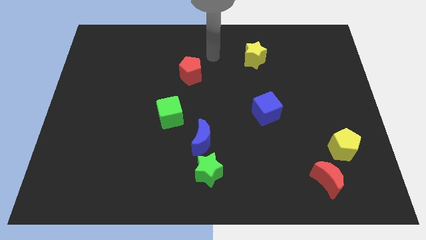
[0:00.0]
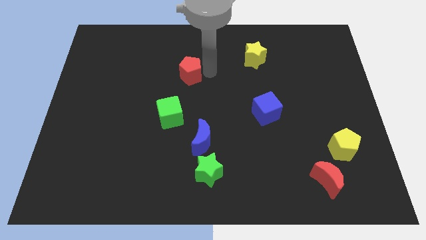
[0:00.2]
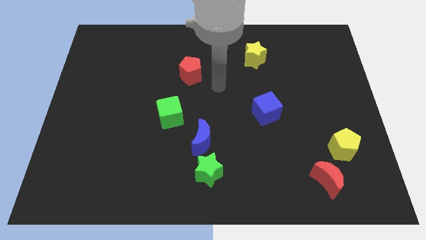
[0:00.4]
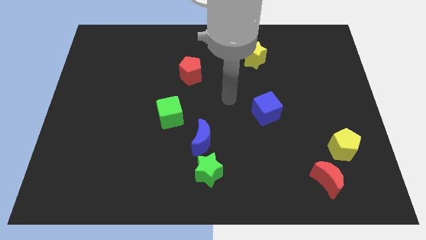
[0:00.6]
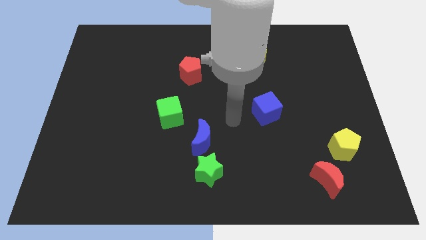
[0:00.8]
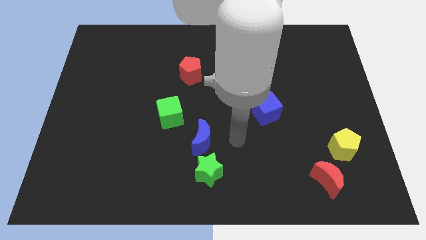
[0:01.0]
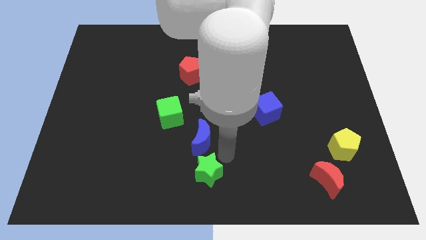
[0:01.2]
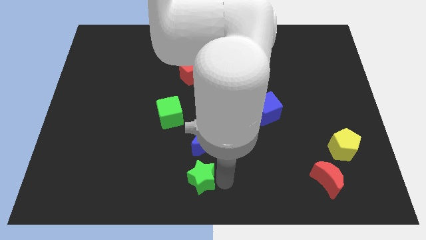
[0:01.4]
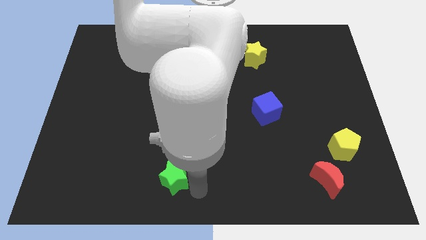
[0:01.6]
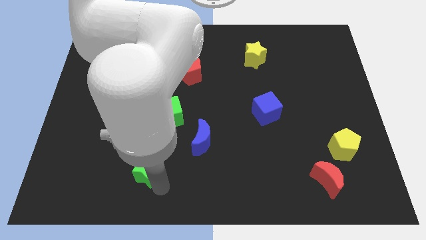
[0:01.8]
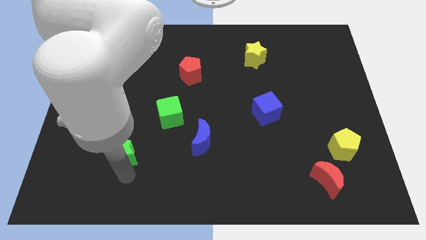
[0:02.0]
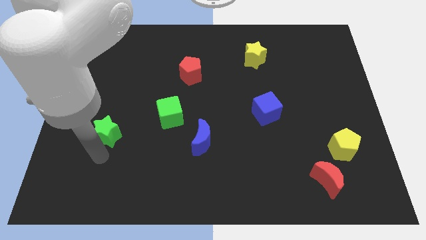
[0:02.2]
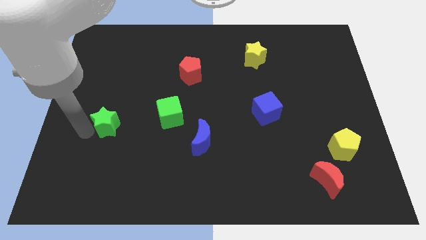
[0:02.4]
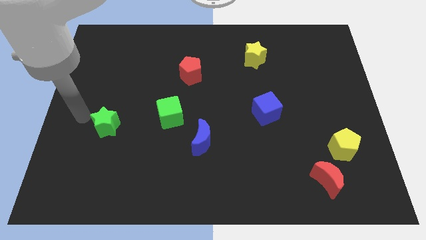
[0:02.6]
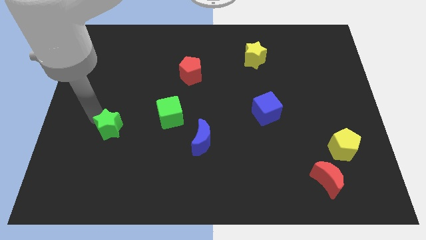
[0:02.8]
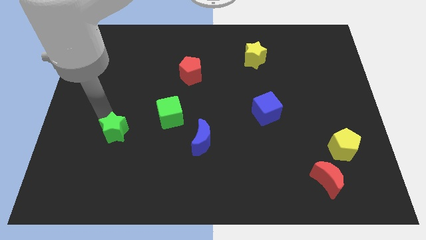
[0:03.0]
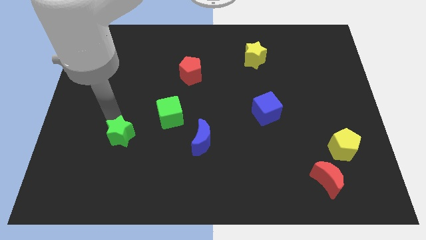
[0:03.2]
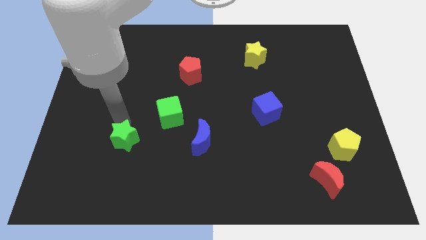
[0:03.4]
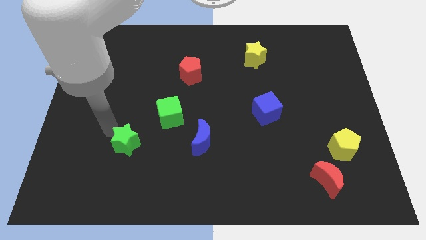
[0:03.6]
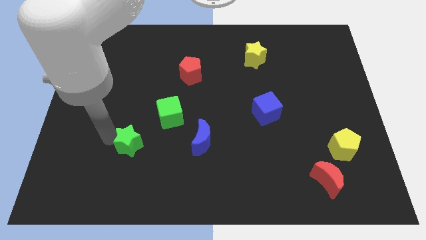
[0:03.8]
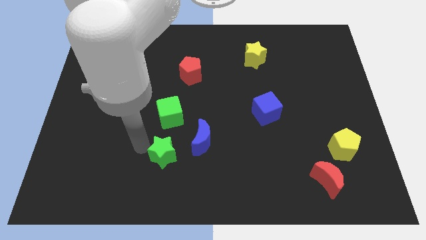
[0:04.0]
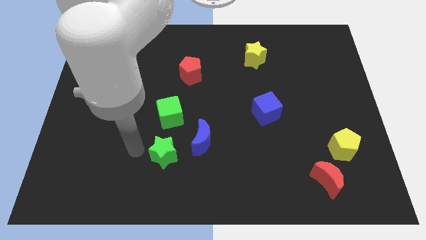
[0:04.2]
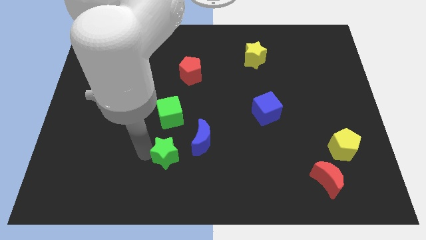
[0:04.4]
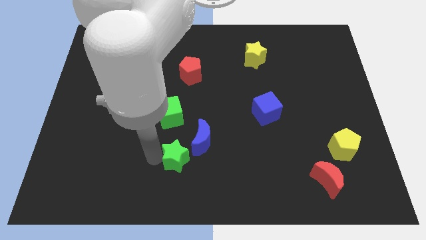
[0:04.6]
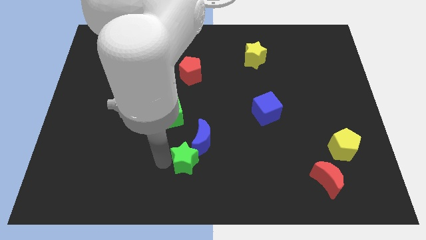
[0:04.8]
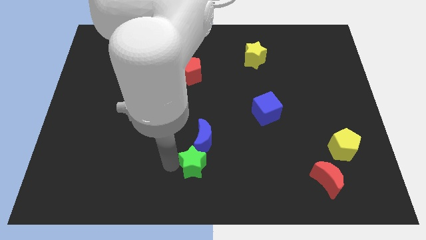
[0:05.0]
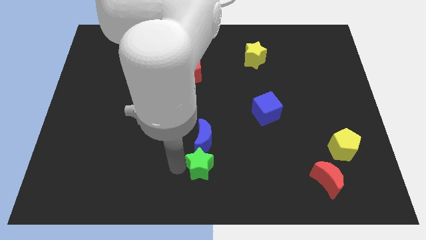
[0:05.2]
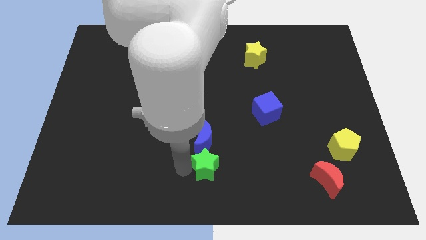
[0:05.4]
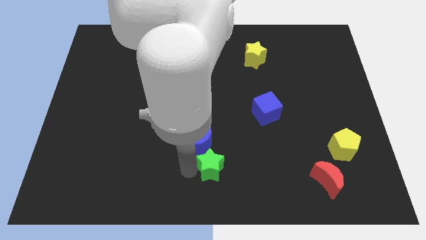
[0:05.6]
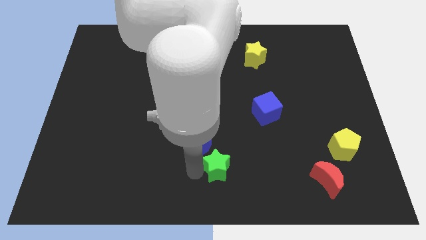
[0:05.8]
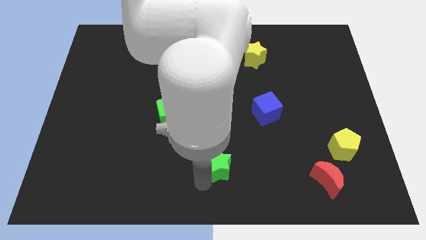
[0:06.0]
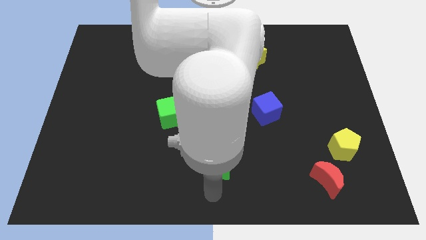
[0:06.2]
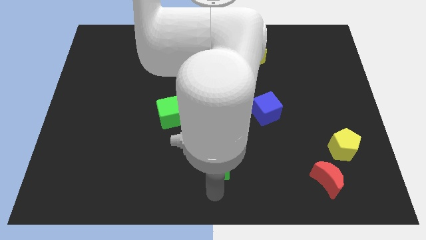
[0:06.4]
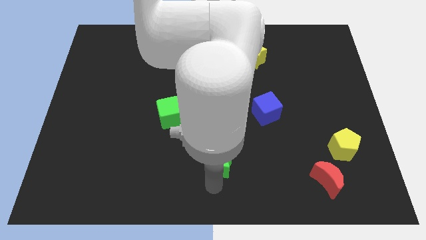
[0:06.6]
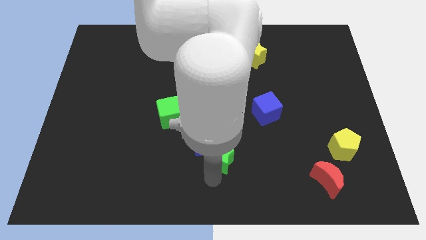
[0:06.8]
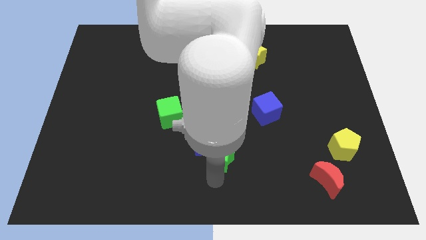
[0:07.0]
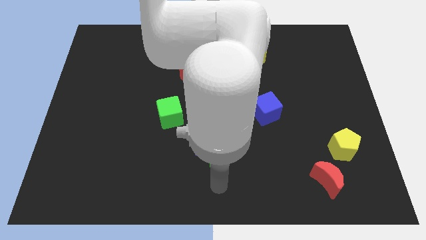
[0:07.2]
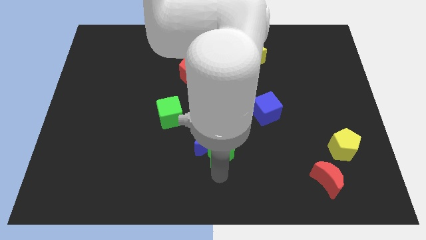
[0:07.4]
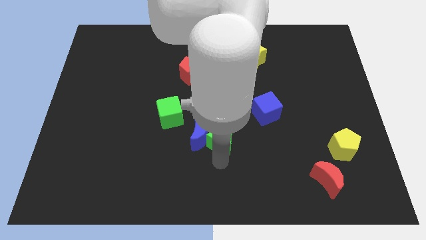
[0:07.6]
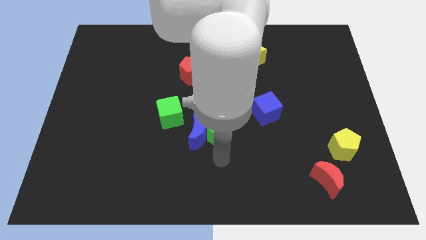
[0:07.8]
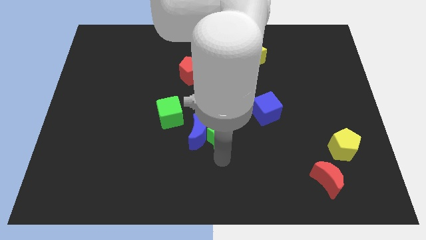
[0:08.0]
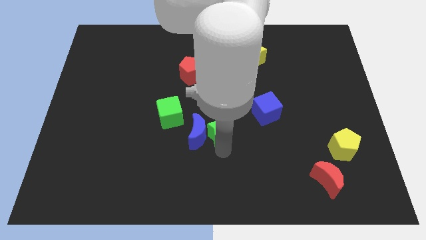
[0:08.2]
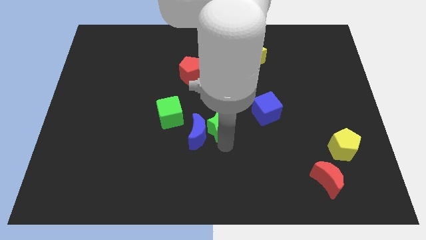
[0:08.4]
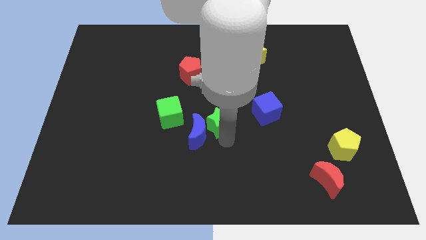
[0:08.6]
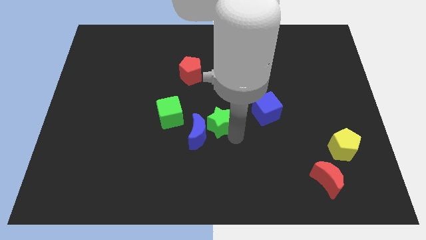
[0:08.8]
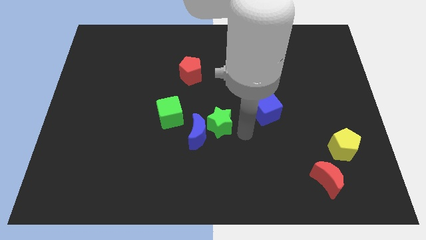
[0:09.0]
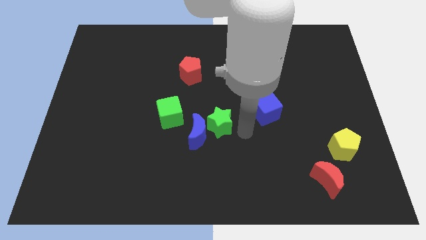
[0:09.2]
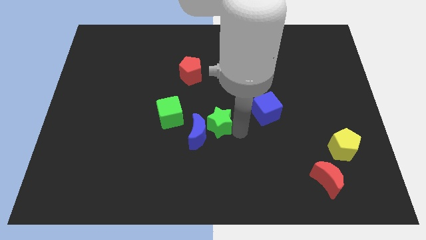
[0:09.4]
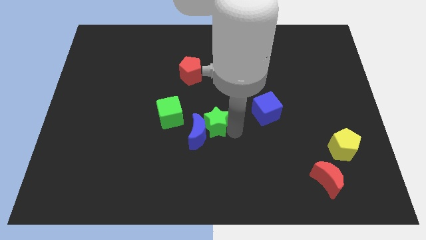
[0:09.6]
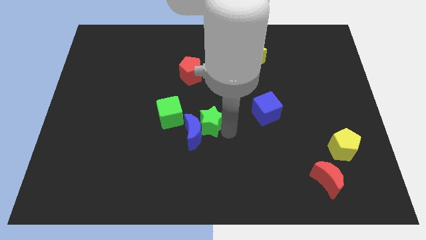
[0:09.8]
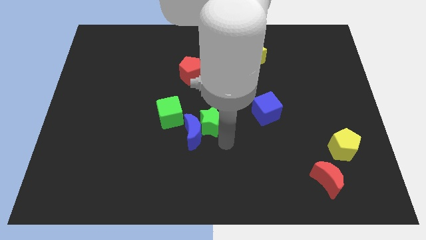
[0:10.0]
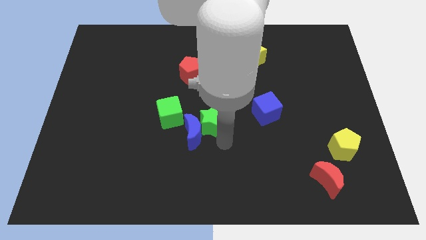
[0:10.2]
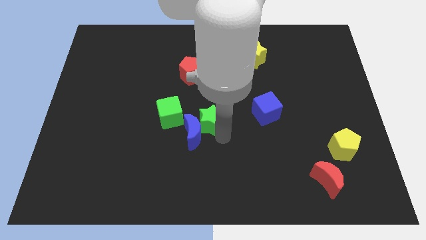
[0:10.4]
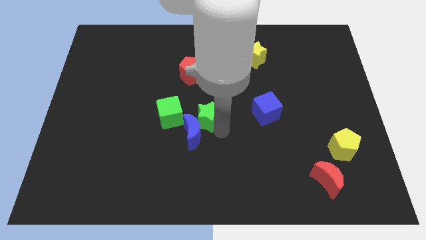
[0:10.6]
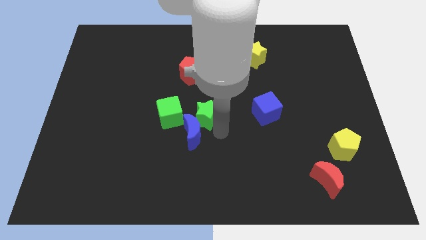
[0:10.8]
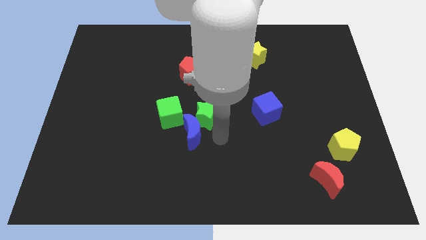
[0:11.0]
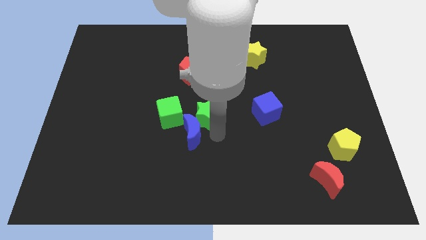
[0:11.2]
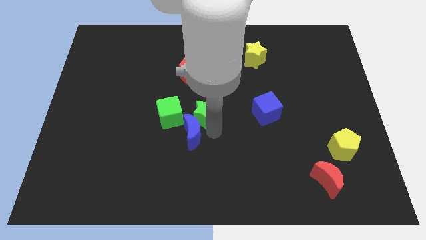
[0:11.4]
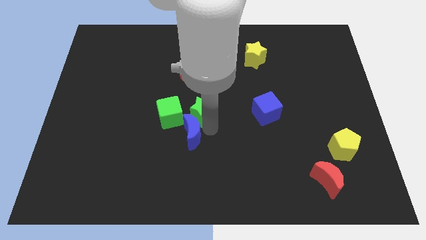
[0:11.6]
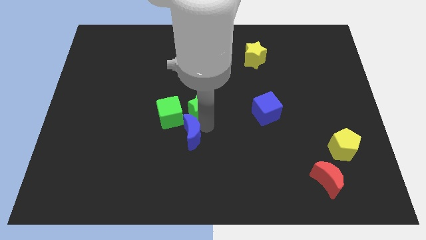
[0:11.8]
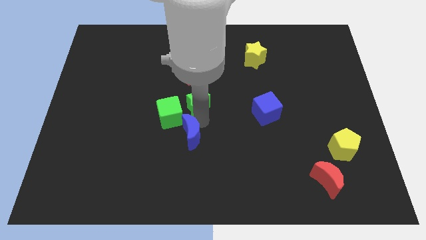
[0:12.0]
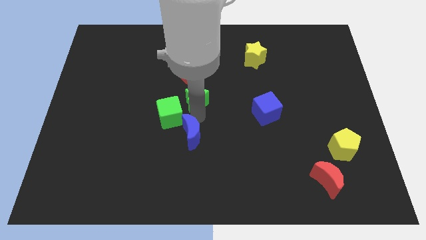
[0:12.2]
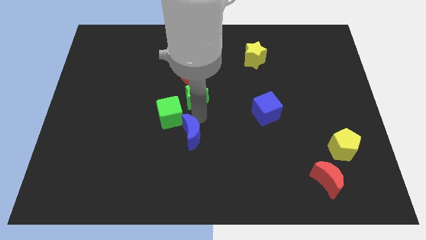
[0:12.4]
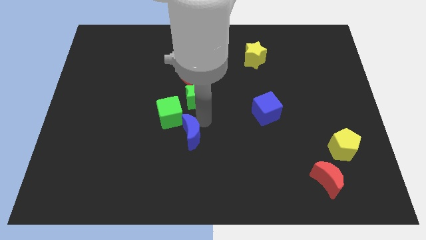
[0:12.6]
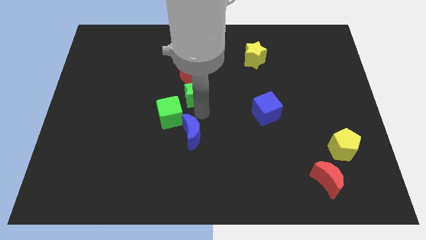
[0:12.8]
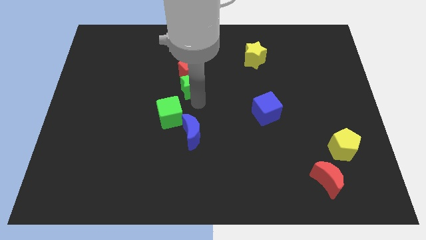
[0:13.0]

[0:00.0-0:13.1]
push the green star close to the red pentagon
